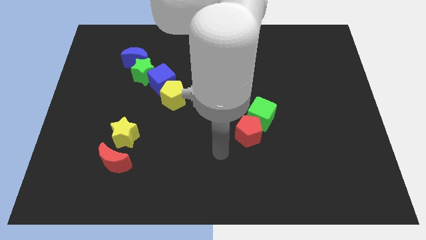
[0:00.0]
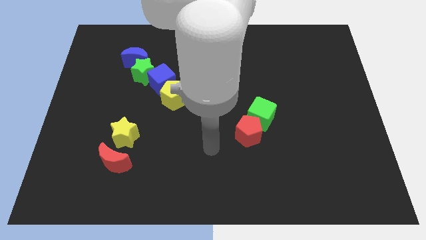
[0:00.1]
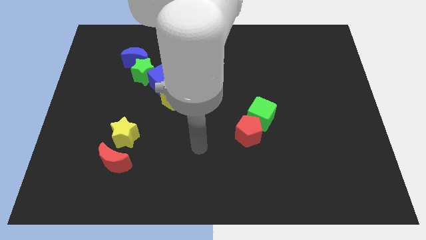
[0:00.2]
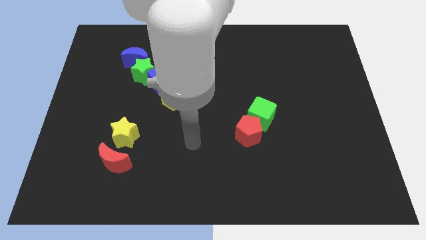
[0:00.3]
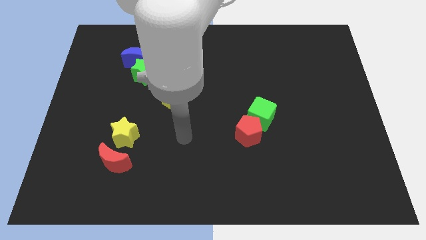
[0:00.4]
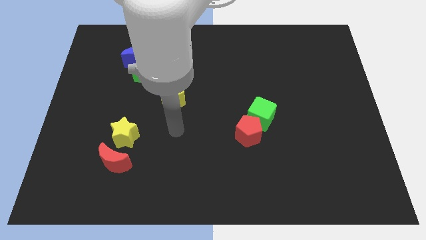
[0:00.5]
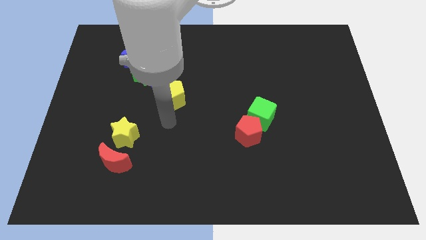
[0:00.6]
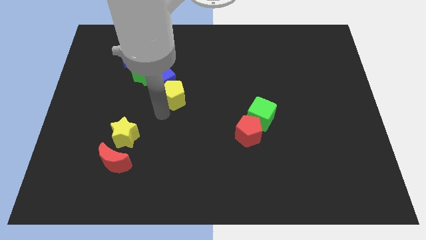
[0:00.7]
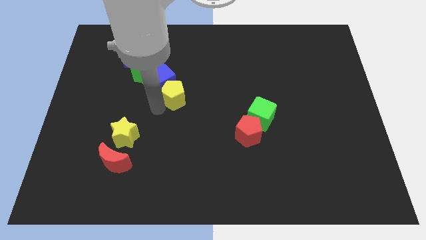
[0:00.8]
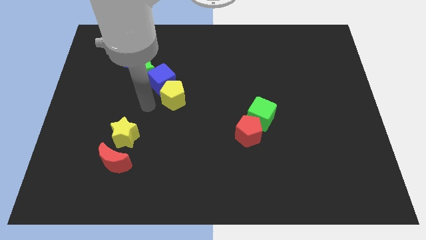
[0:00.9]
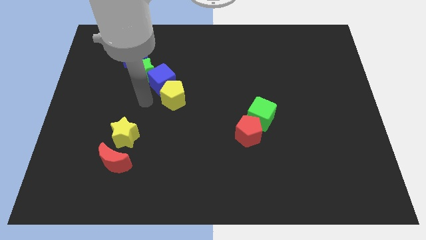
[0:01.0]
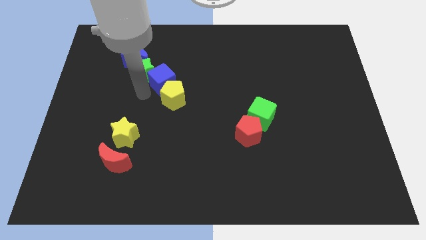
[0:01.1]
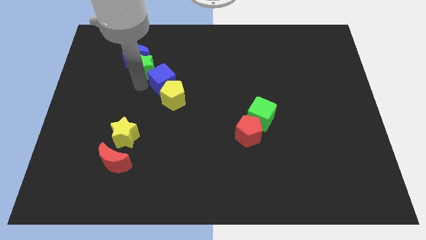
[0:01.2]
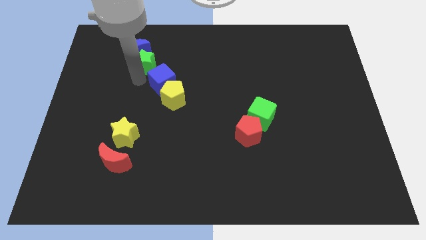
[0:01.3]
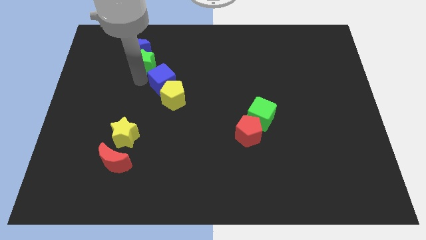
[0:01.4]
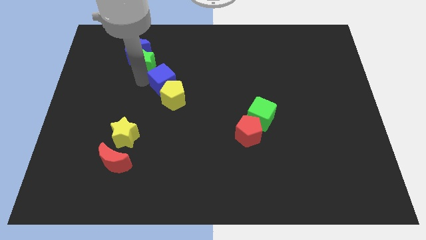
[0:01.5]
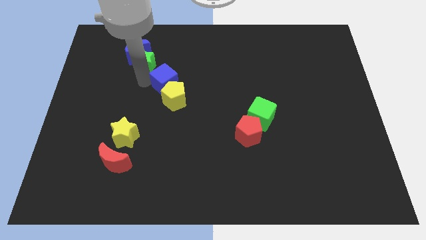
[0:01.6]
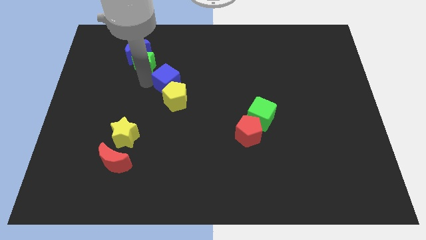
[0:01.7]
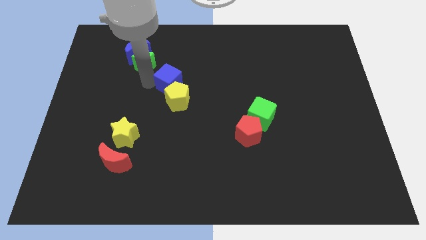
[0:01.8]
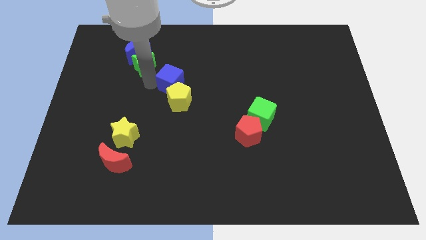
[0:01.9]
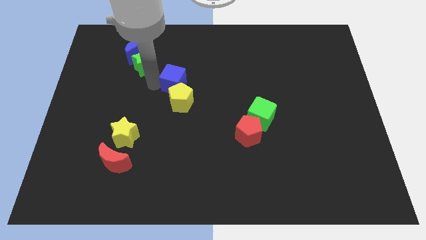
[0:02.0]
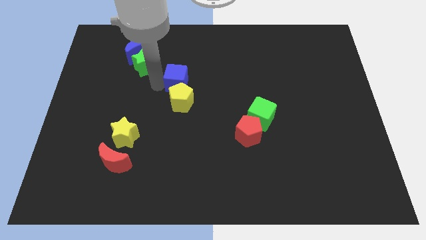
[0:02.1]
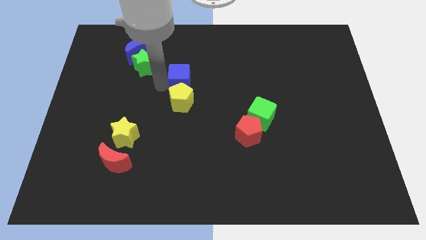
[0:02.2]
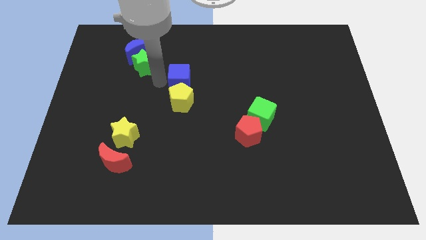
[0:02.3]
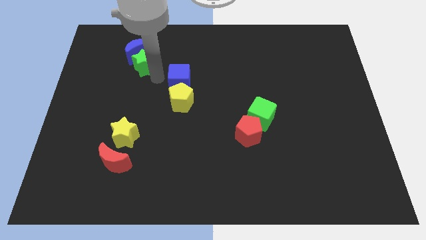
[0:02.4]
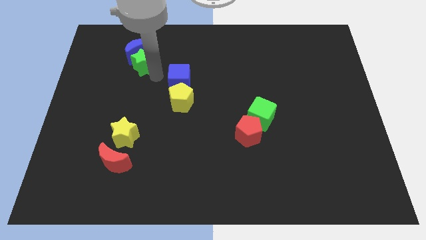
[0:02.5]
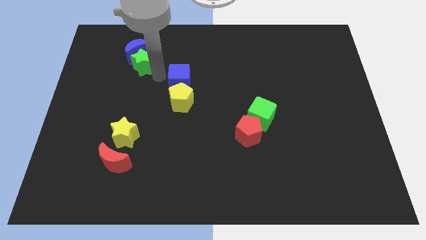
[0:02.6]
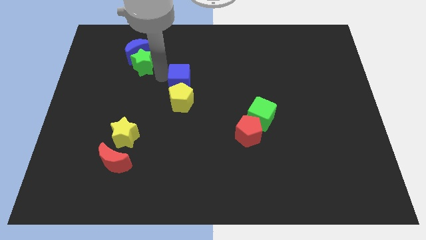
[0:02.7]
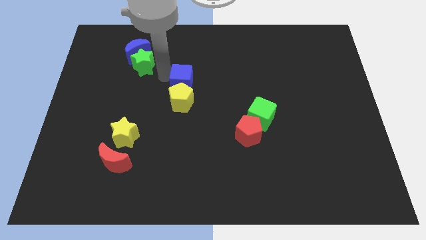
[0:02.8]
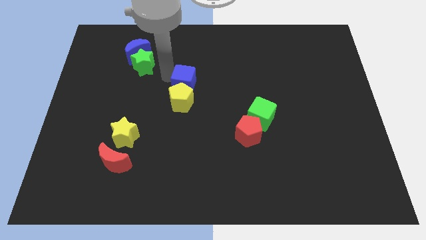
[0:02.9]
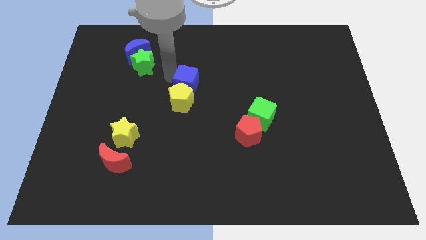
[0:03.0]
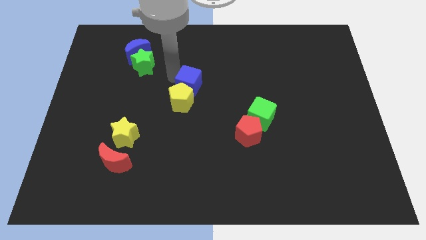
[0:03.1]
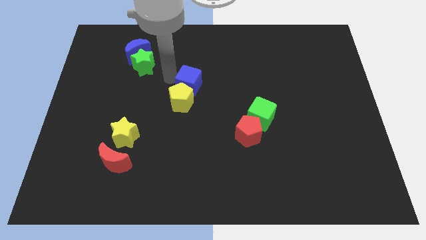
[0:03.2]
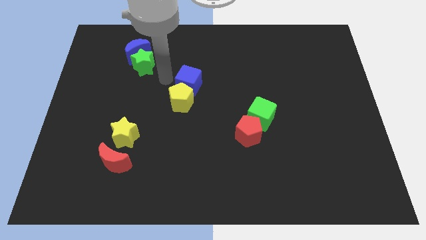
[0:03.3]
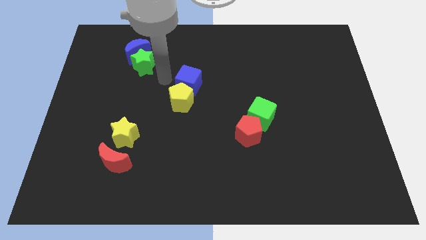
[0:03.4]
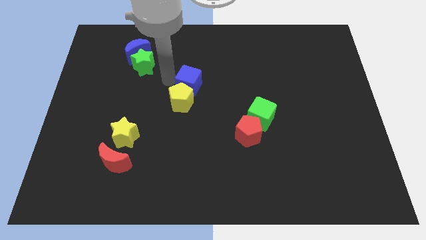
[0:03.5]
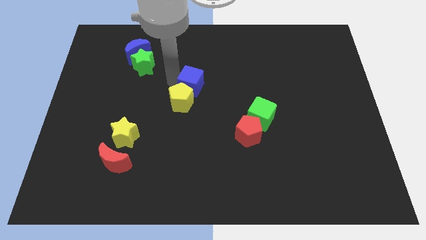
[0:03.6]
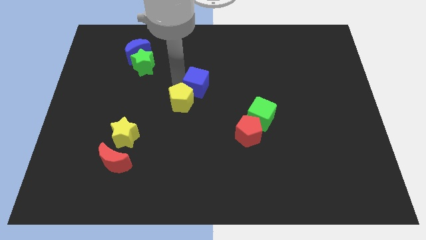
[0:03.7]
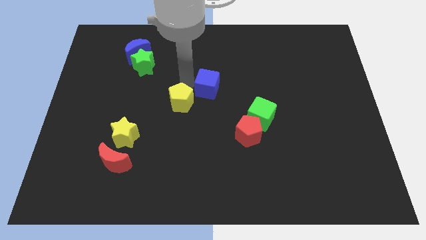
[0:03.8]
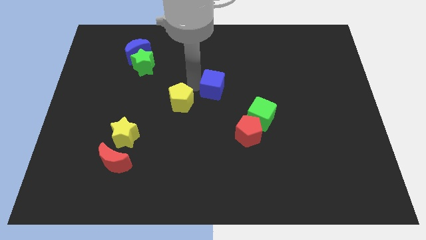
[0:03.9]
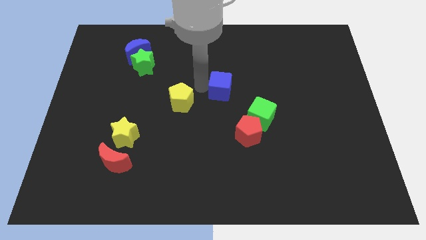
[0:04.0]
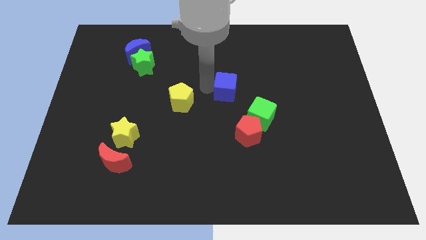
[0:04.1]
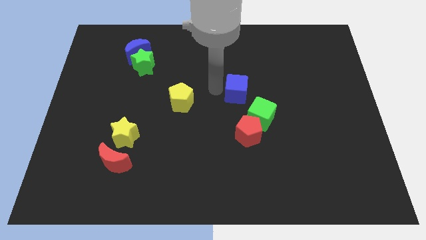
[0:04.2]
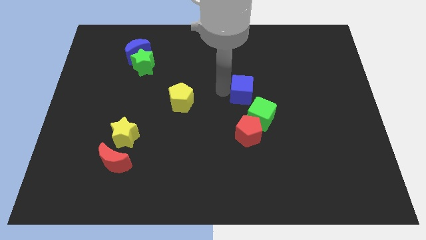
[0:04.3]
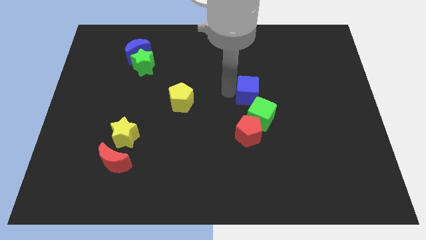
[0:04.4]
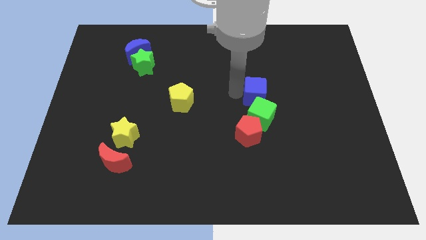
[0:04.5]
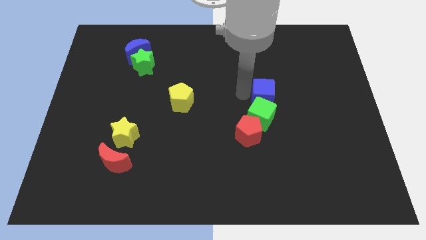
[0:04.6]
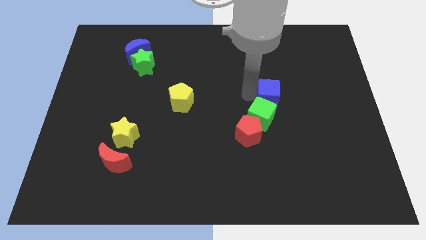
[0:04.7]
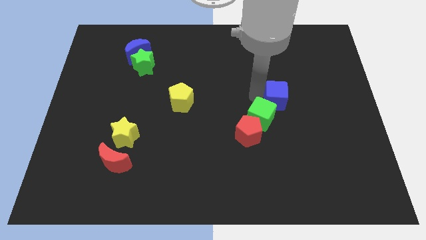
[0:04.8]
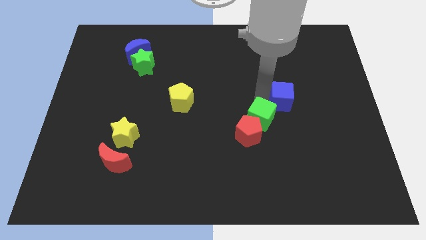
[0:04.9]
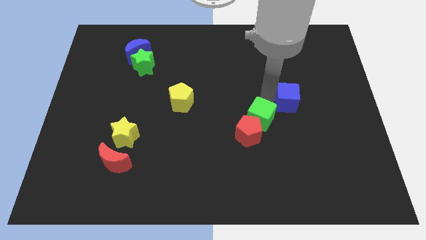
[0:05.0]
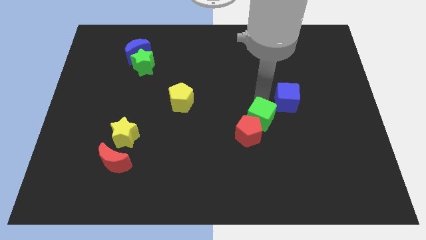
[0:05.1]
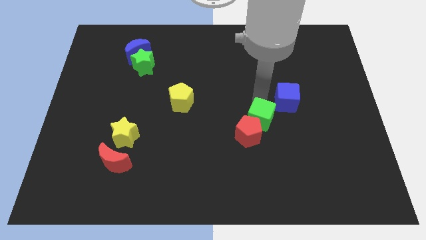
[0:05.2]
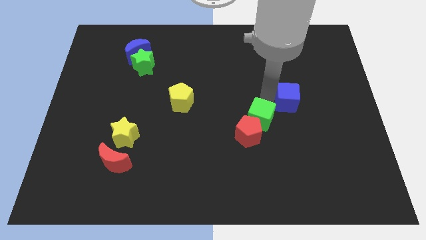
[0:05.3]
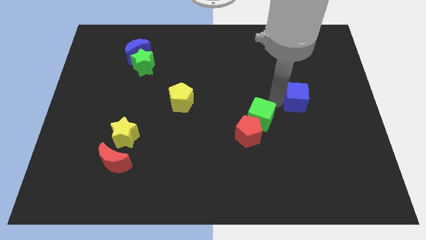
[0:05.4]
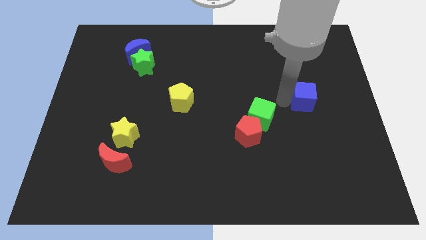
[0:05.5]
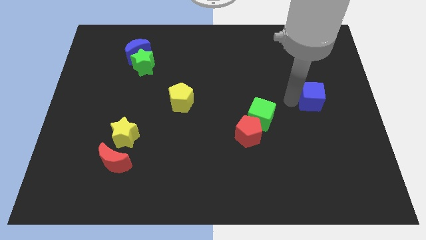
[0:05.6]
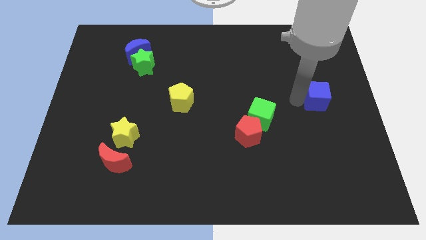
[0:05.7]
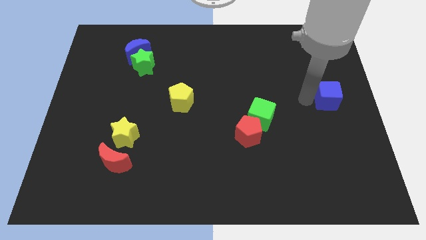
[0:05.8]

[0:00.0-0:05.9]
push the blue cube to the right side
